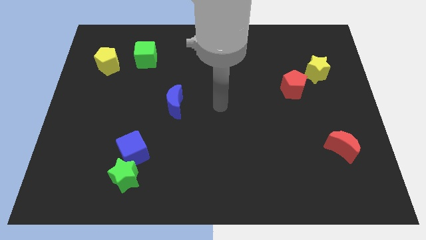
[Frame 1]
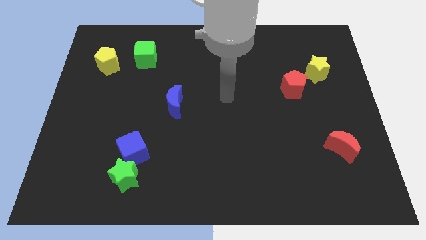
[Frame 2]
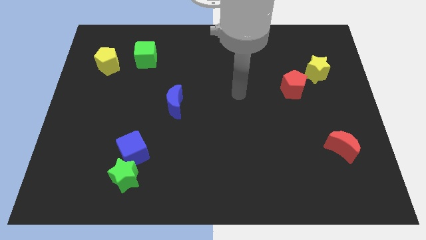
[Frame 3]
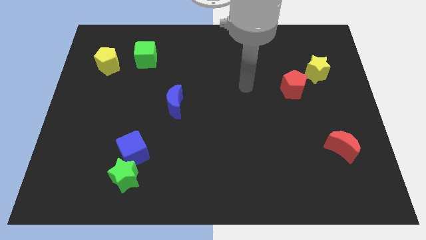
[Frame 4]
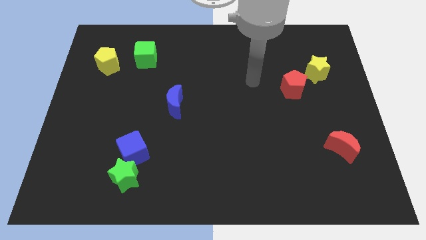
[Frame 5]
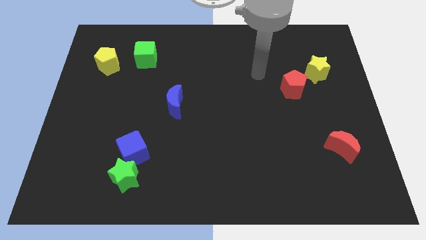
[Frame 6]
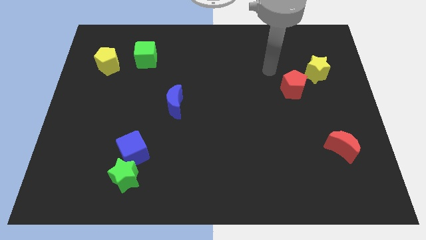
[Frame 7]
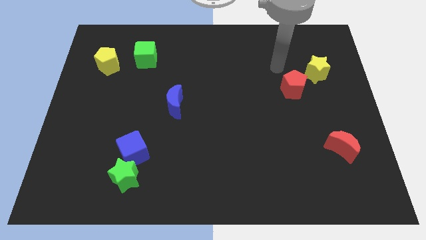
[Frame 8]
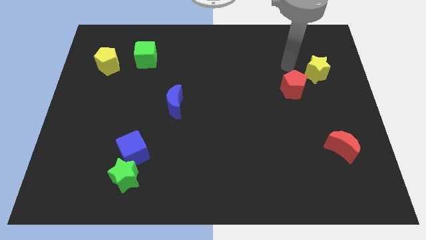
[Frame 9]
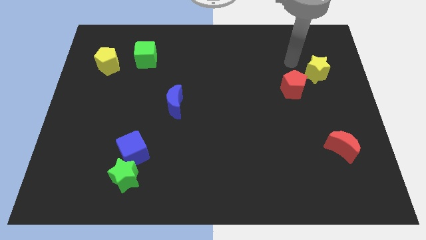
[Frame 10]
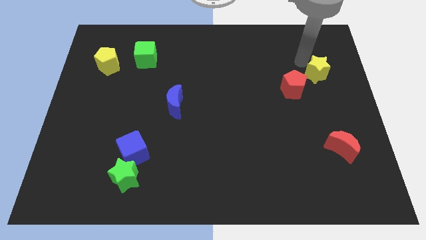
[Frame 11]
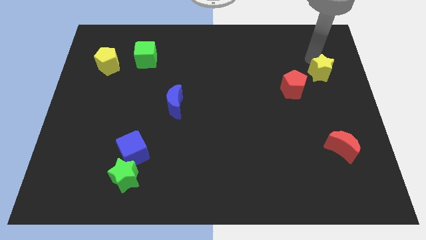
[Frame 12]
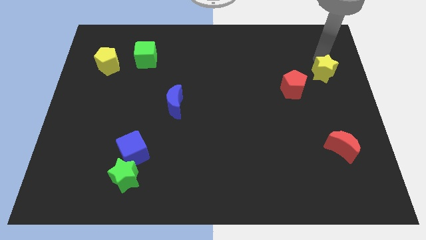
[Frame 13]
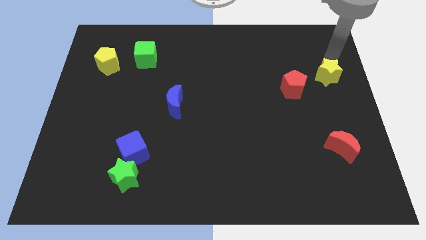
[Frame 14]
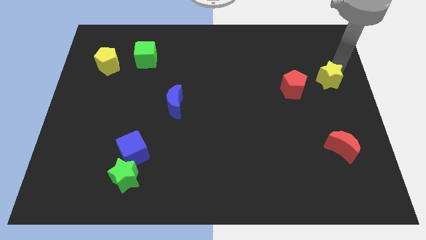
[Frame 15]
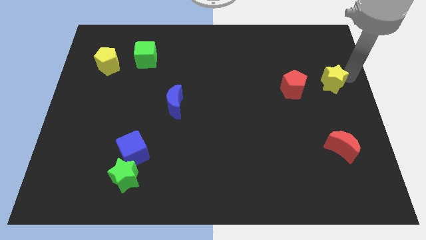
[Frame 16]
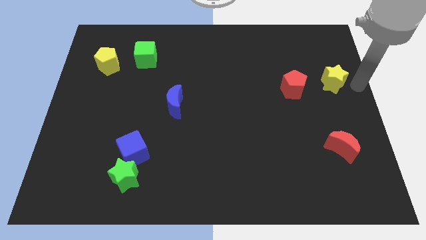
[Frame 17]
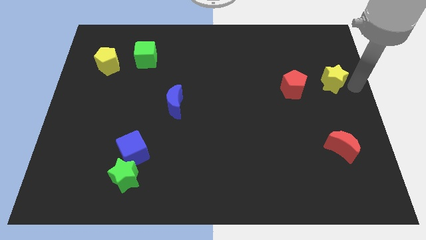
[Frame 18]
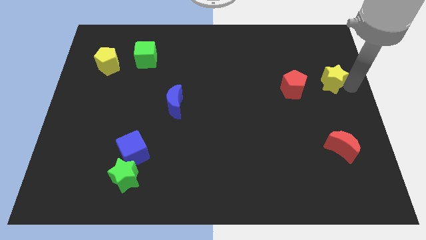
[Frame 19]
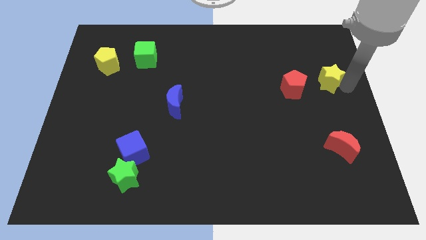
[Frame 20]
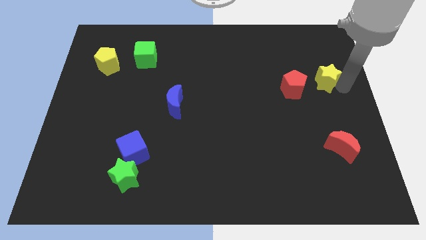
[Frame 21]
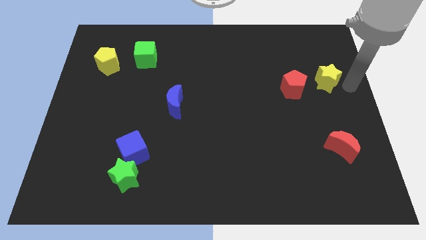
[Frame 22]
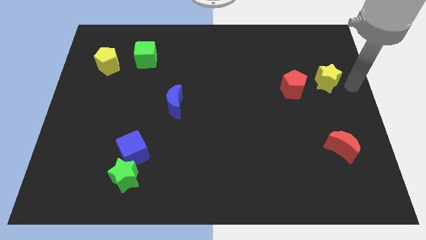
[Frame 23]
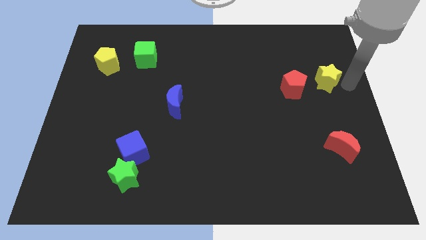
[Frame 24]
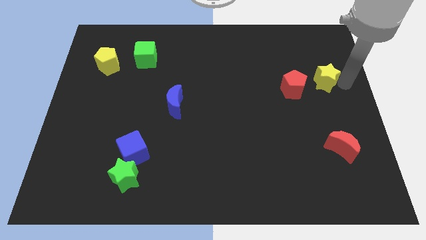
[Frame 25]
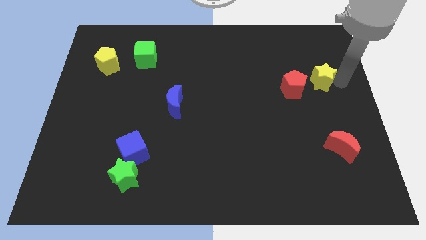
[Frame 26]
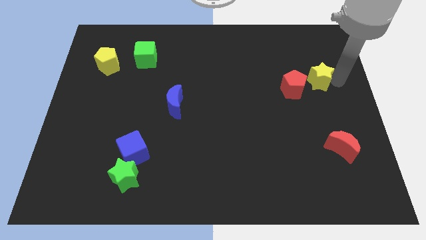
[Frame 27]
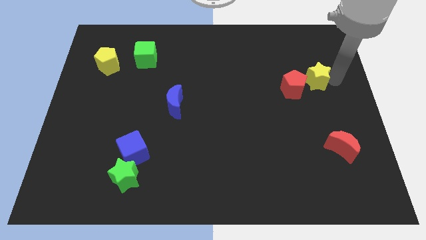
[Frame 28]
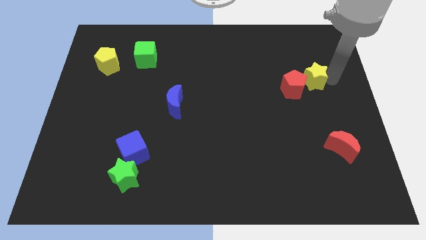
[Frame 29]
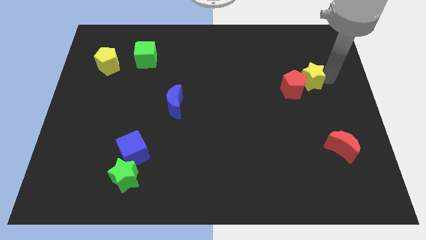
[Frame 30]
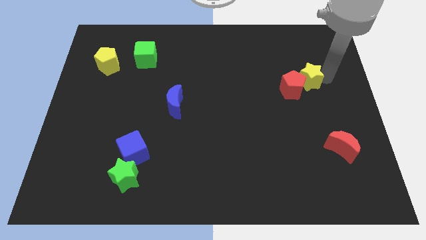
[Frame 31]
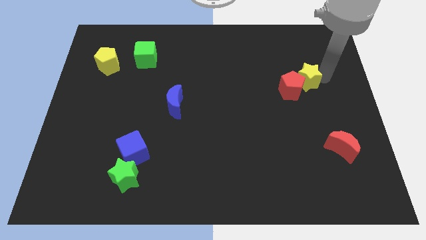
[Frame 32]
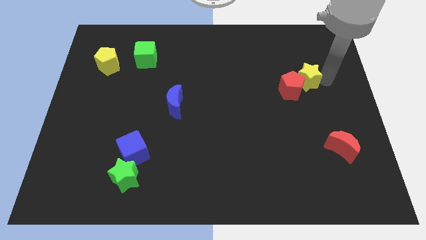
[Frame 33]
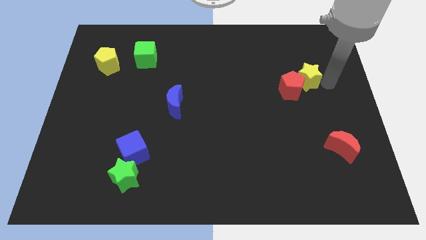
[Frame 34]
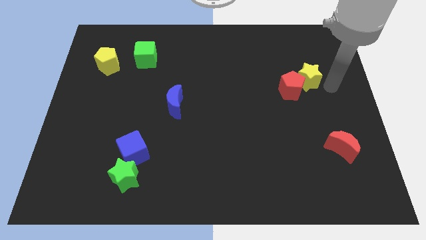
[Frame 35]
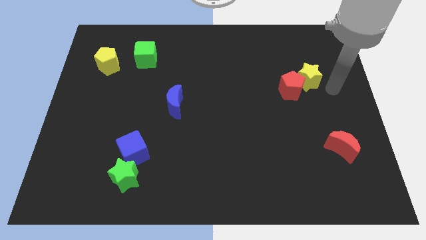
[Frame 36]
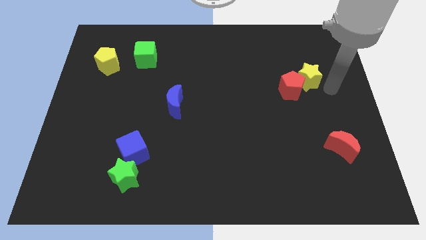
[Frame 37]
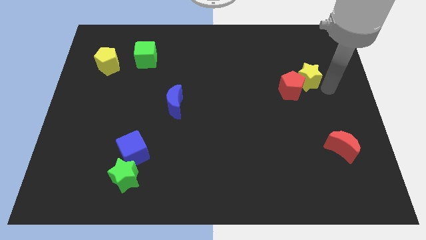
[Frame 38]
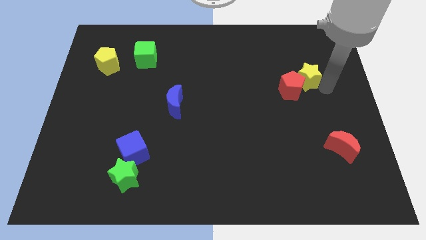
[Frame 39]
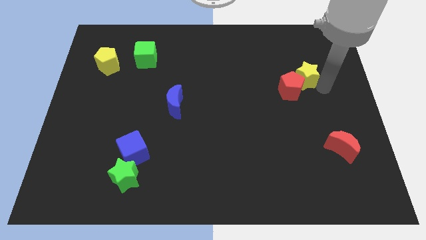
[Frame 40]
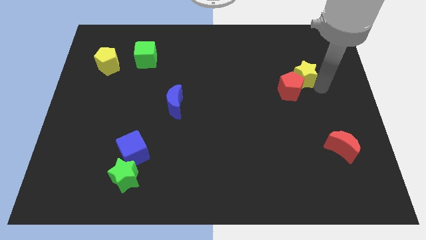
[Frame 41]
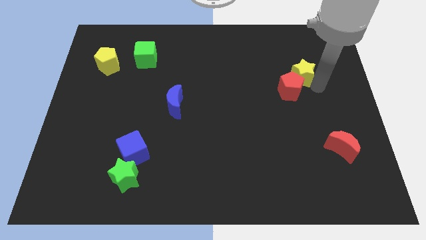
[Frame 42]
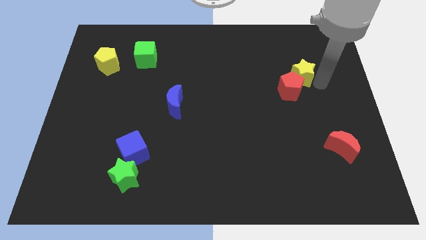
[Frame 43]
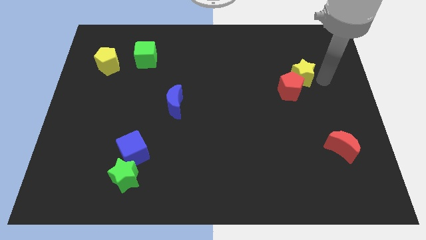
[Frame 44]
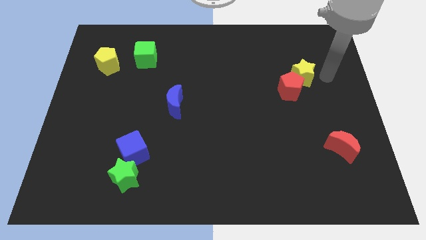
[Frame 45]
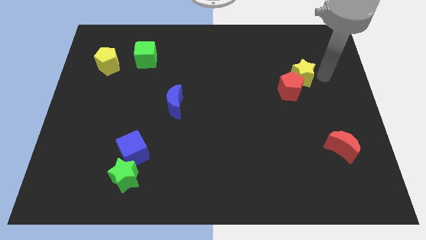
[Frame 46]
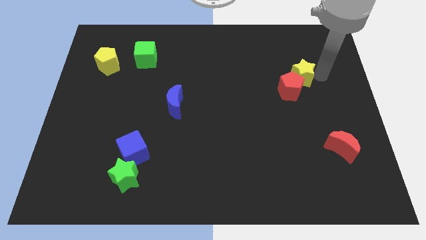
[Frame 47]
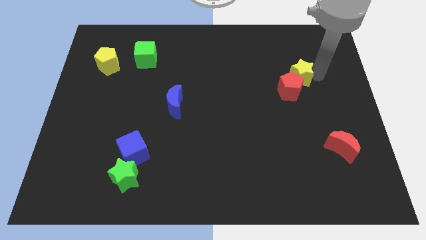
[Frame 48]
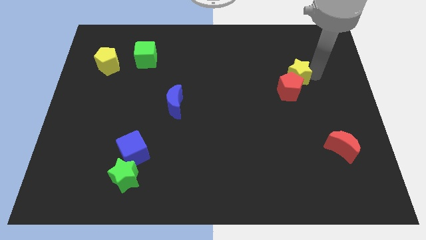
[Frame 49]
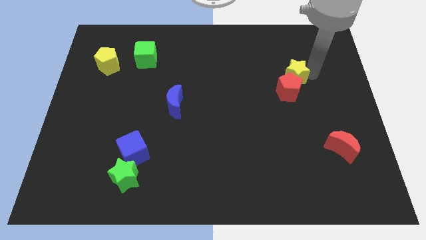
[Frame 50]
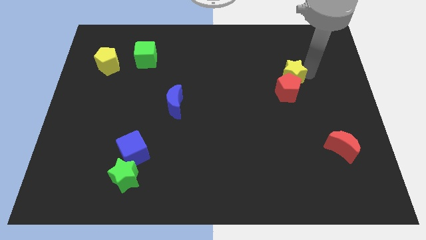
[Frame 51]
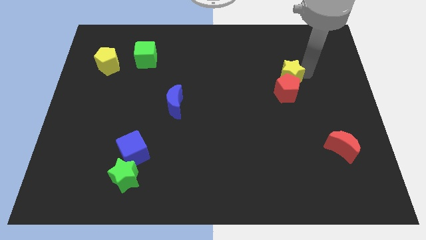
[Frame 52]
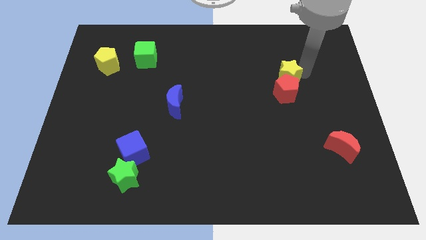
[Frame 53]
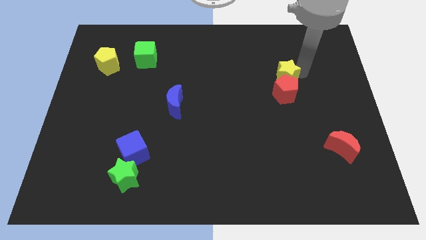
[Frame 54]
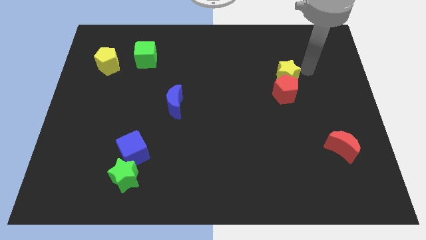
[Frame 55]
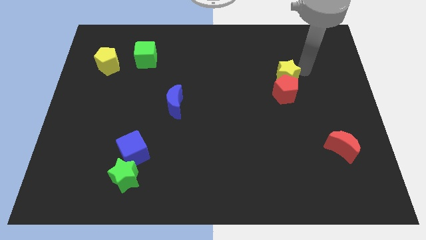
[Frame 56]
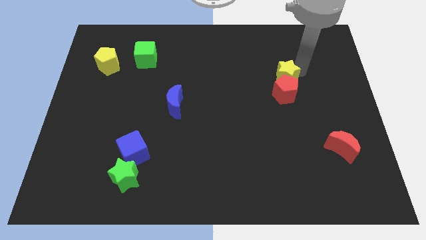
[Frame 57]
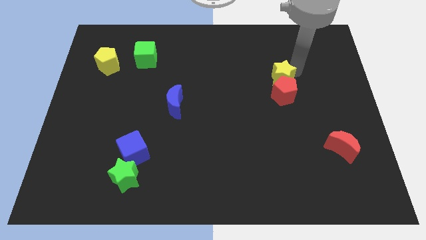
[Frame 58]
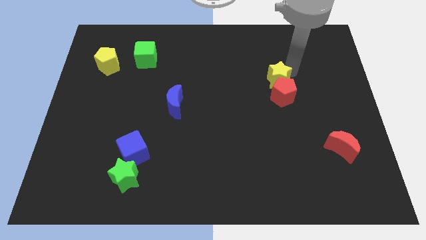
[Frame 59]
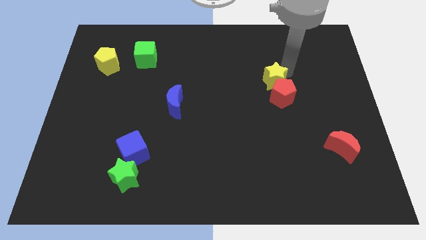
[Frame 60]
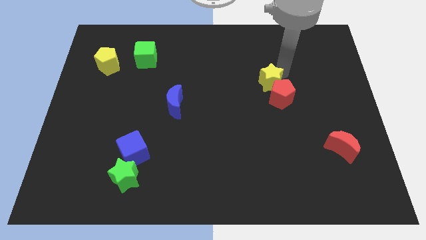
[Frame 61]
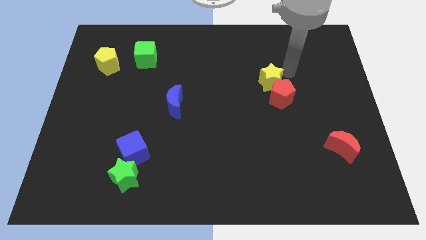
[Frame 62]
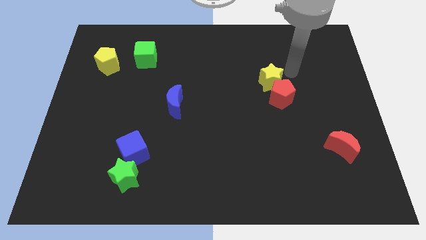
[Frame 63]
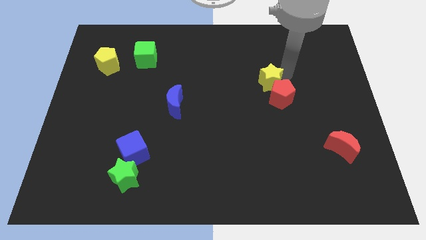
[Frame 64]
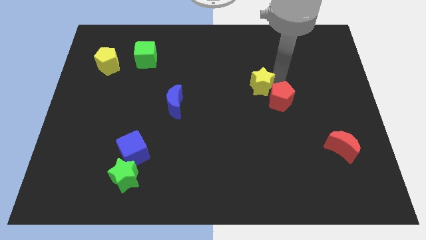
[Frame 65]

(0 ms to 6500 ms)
slide the yellow star left of the red pentagon

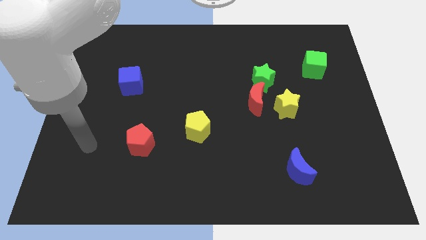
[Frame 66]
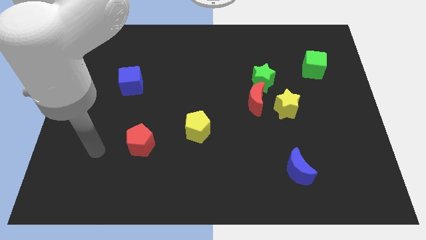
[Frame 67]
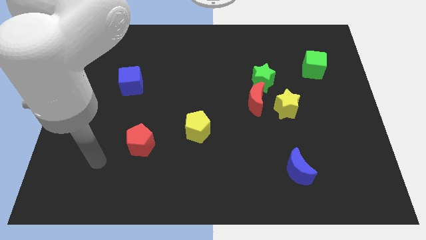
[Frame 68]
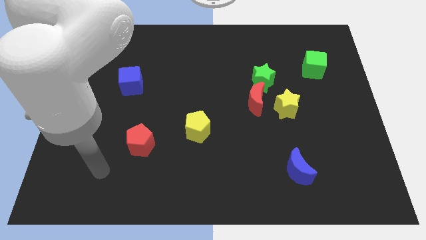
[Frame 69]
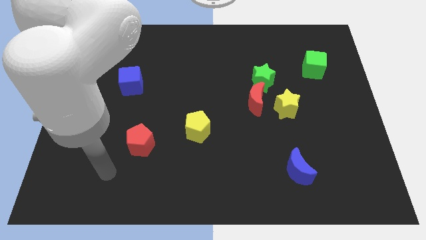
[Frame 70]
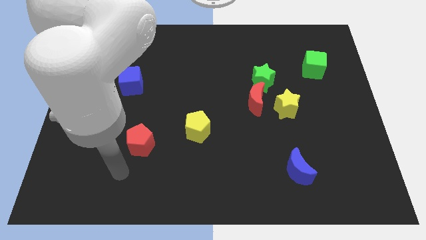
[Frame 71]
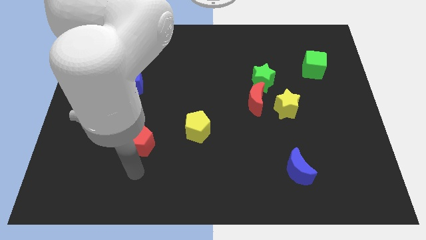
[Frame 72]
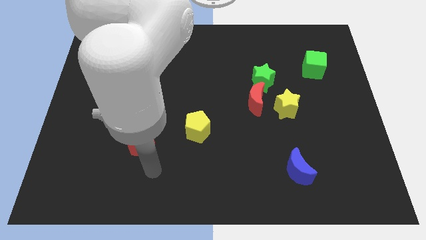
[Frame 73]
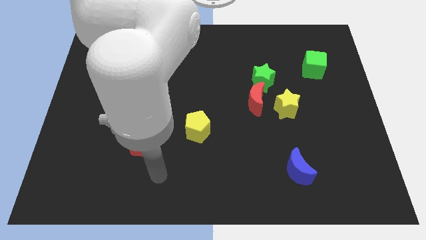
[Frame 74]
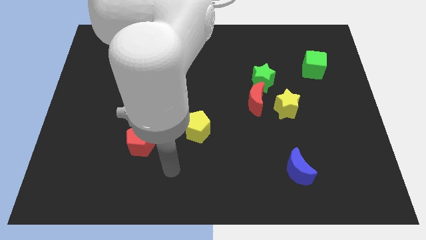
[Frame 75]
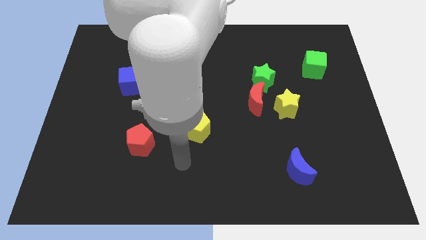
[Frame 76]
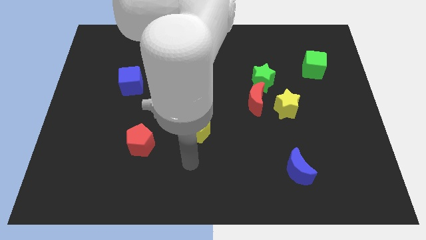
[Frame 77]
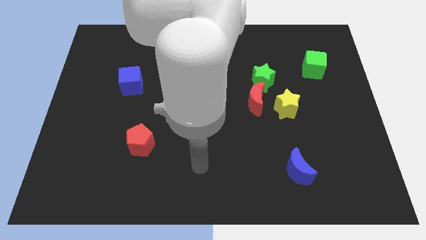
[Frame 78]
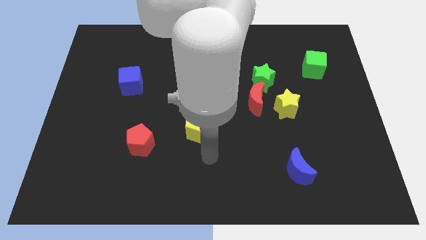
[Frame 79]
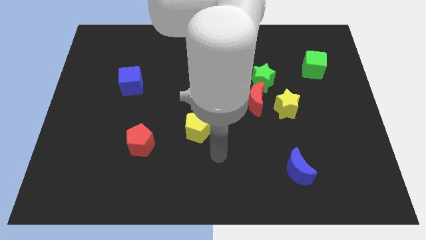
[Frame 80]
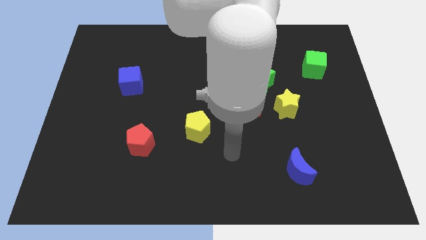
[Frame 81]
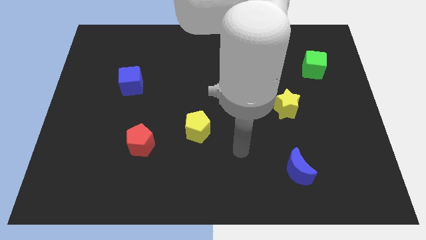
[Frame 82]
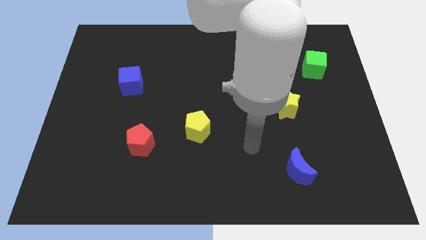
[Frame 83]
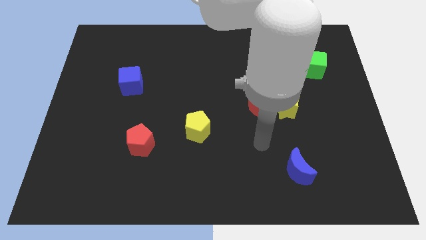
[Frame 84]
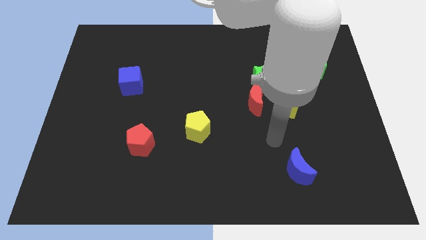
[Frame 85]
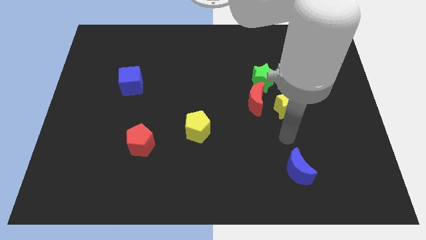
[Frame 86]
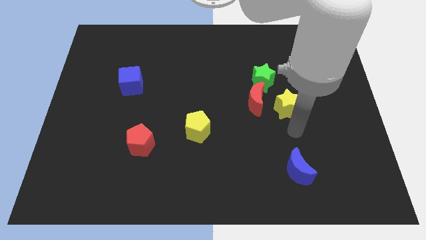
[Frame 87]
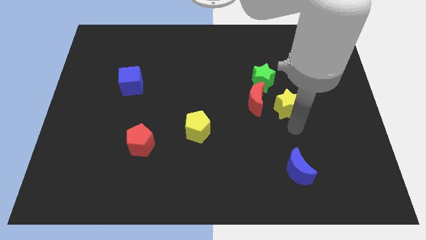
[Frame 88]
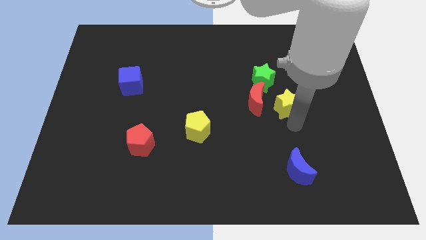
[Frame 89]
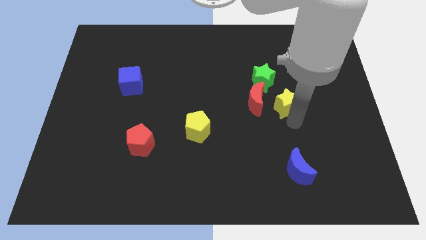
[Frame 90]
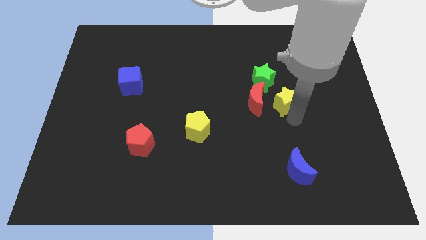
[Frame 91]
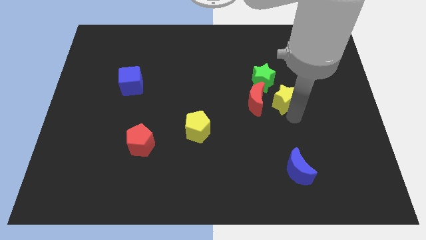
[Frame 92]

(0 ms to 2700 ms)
put the yellow star to the top right of the red moon
